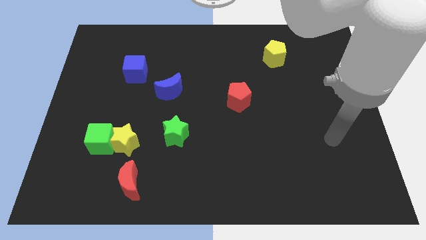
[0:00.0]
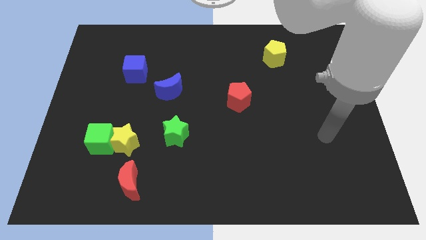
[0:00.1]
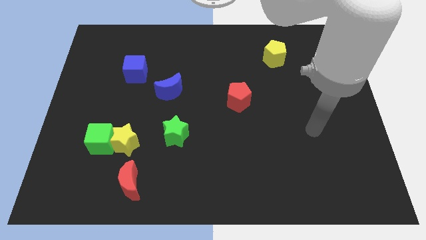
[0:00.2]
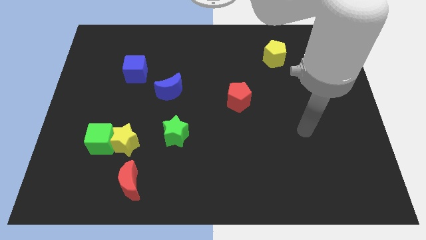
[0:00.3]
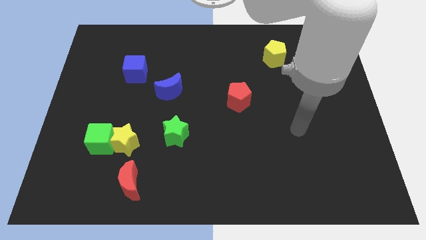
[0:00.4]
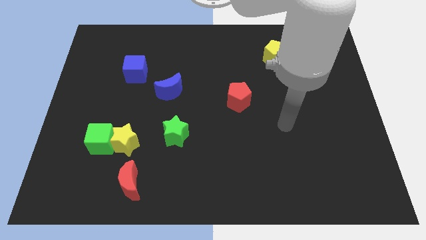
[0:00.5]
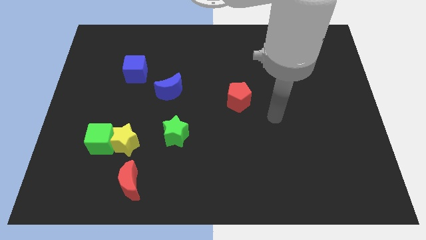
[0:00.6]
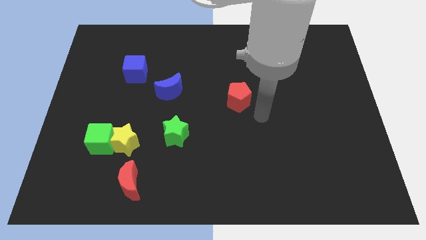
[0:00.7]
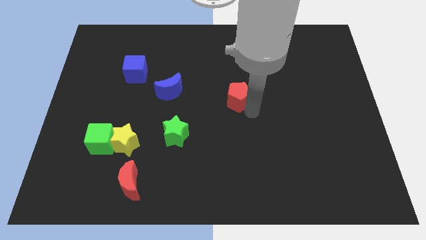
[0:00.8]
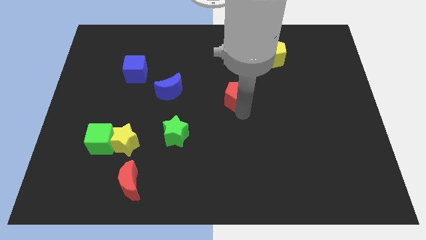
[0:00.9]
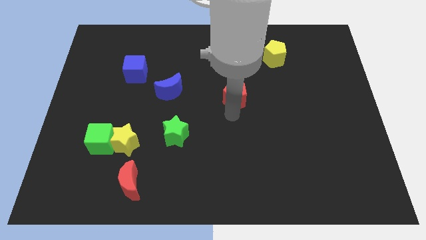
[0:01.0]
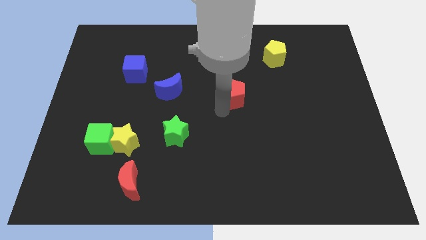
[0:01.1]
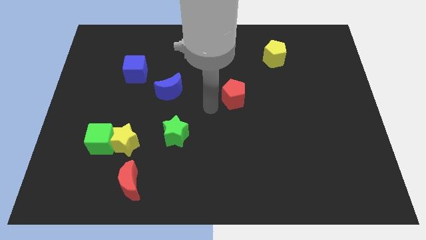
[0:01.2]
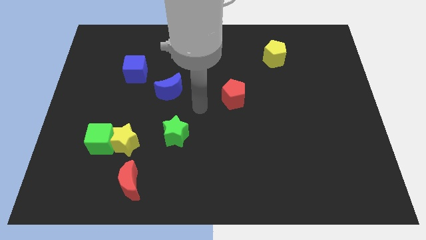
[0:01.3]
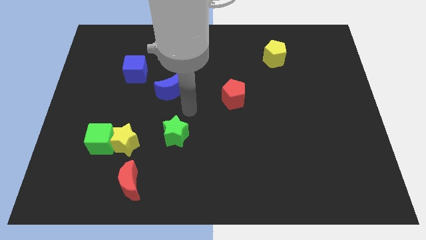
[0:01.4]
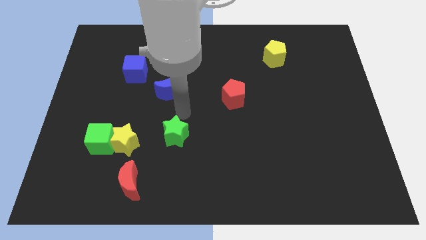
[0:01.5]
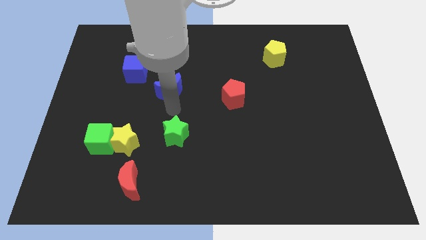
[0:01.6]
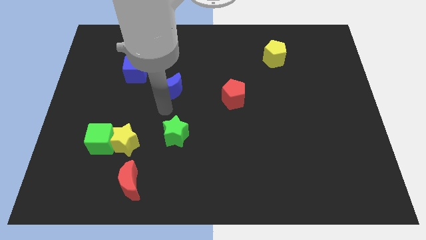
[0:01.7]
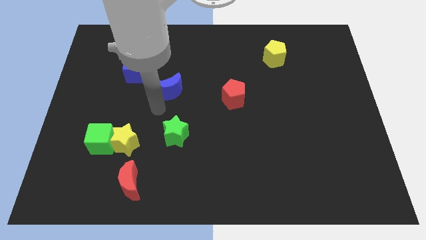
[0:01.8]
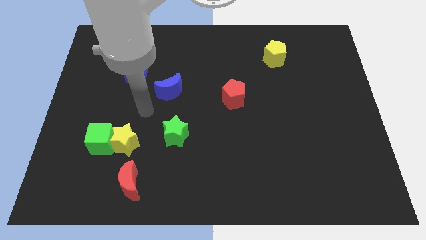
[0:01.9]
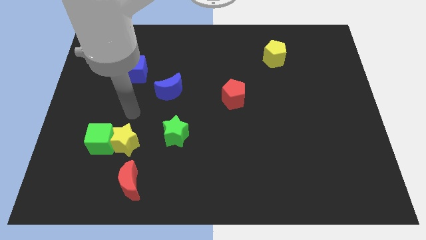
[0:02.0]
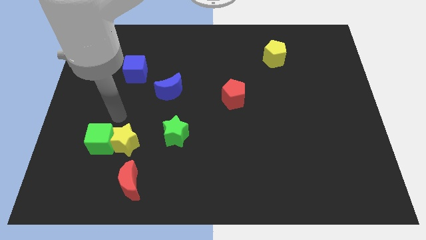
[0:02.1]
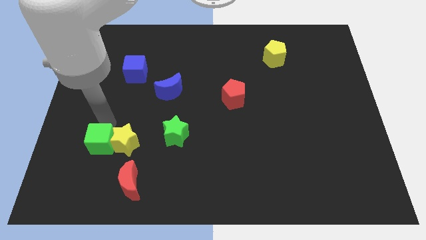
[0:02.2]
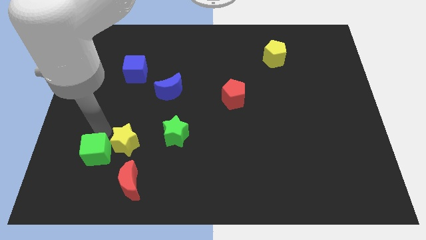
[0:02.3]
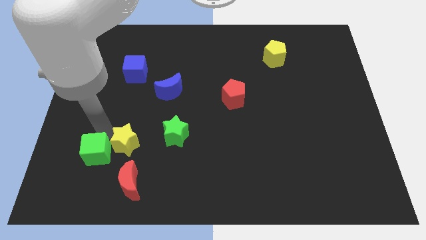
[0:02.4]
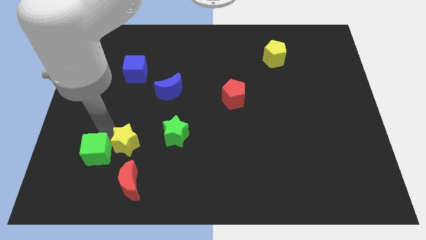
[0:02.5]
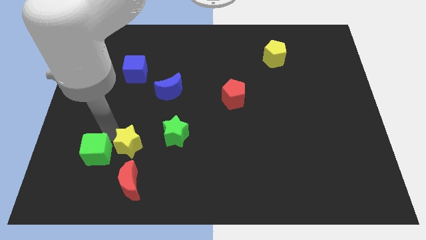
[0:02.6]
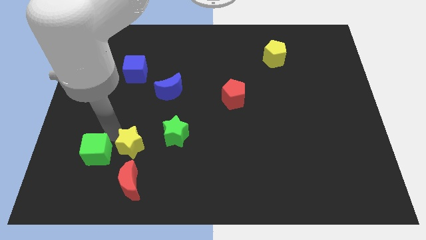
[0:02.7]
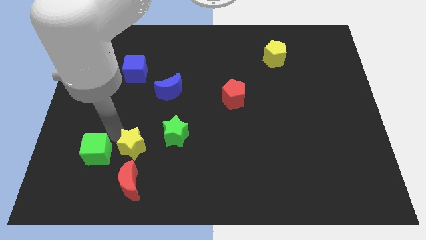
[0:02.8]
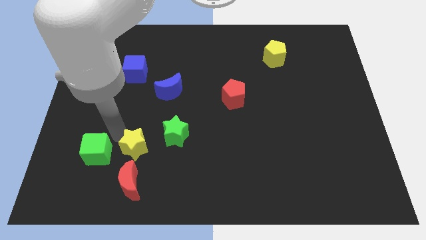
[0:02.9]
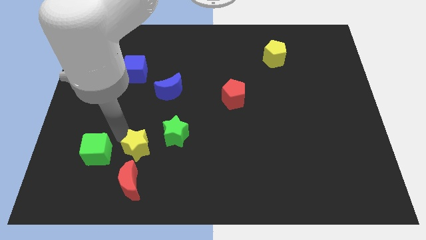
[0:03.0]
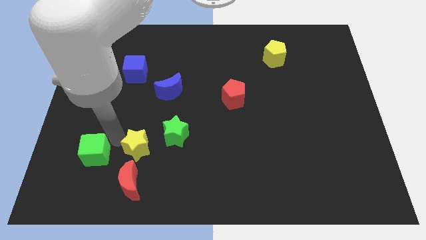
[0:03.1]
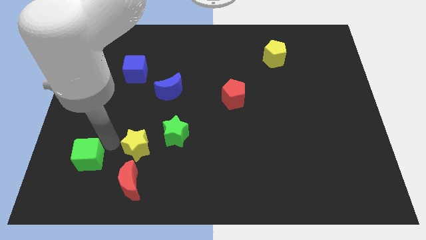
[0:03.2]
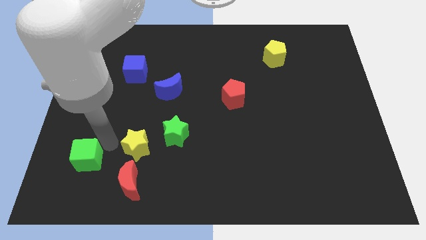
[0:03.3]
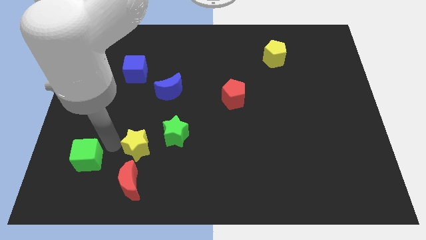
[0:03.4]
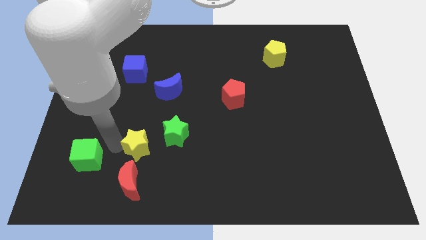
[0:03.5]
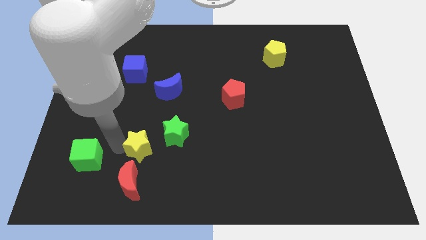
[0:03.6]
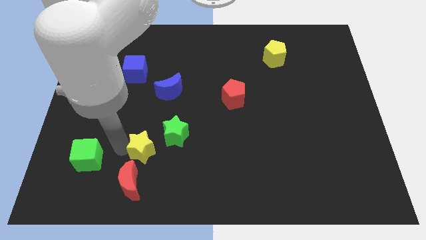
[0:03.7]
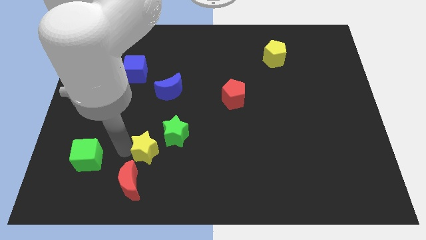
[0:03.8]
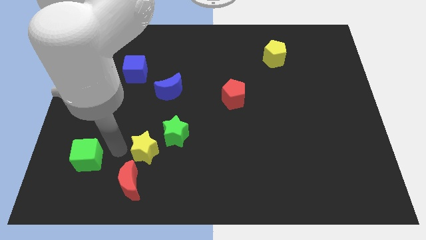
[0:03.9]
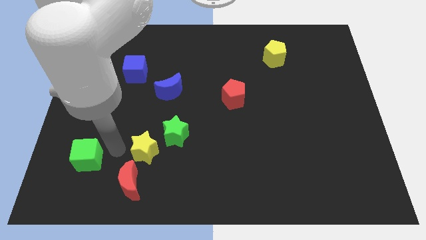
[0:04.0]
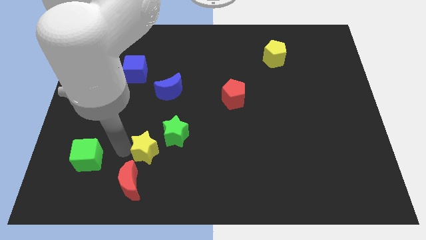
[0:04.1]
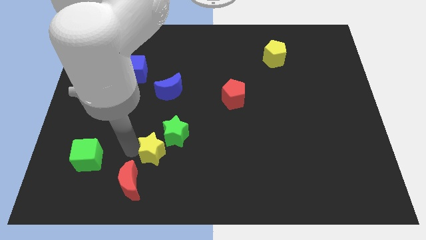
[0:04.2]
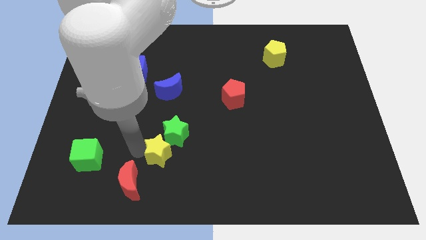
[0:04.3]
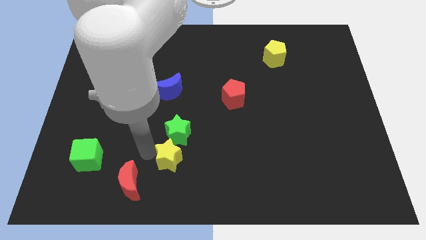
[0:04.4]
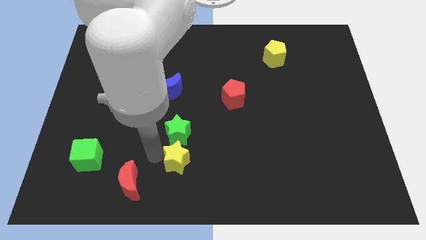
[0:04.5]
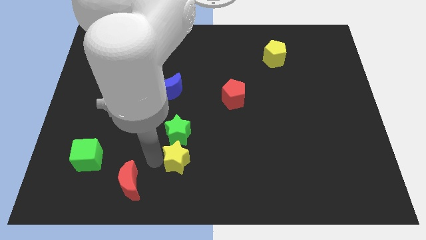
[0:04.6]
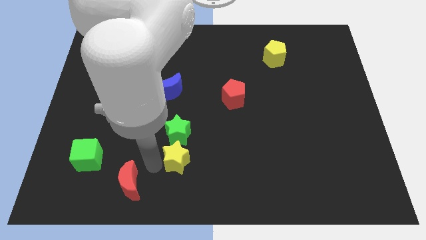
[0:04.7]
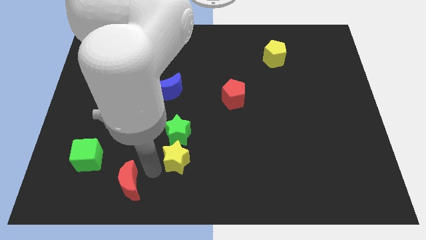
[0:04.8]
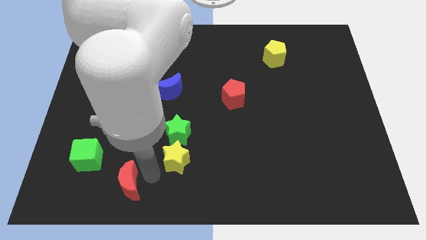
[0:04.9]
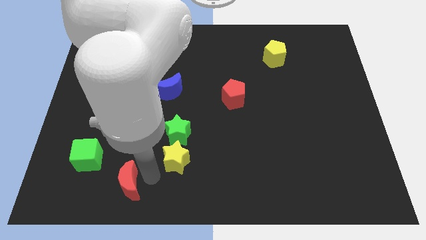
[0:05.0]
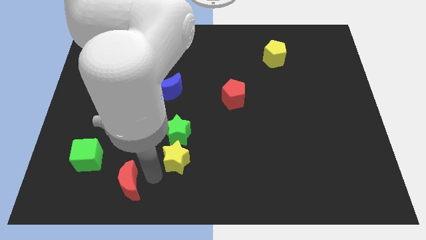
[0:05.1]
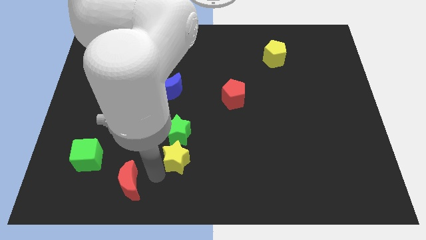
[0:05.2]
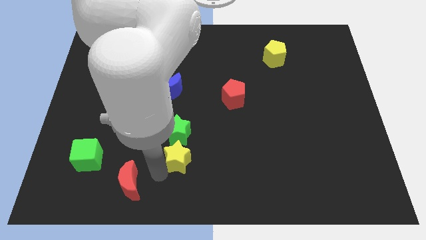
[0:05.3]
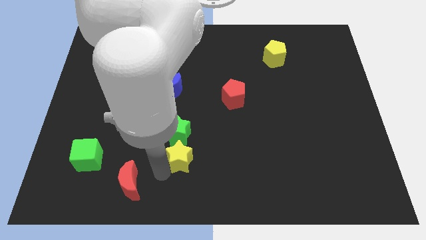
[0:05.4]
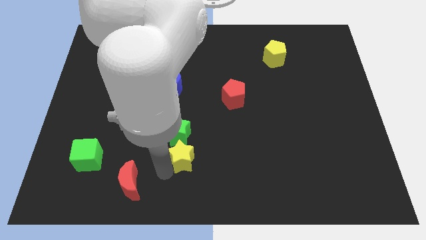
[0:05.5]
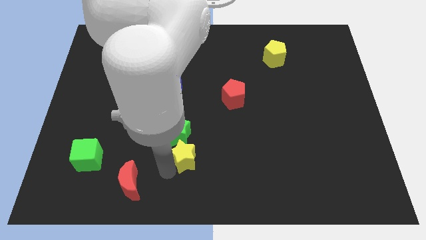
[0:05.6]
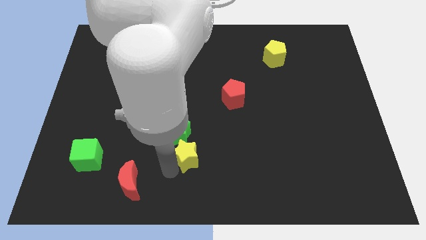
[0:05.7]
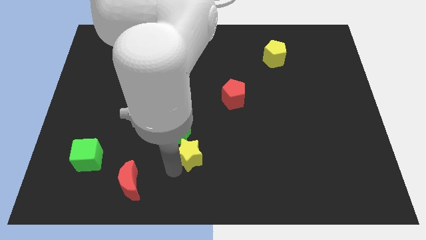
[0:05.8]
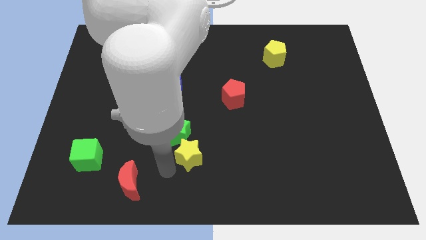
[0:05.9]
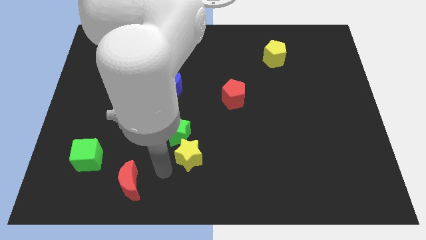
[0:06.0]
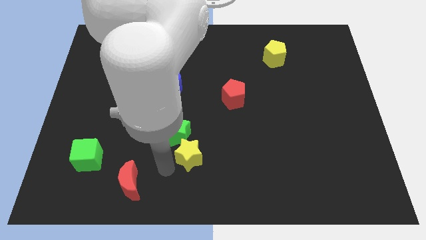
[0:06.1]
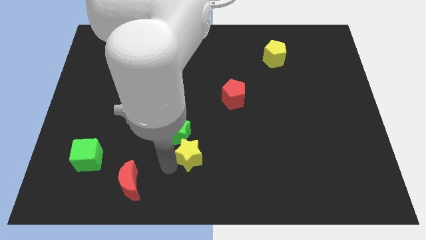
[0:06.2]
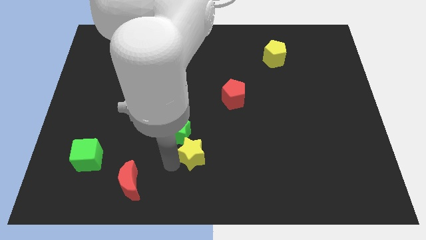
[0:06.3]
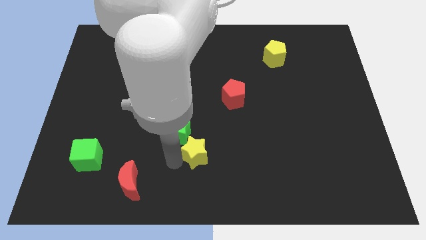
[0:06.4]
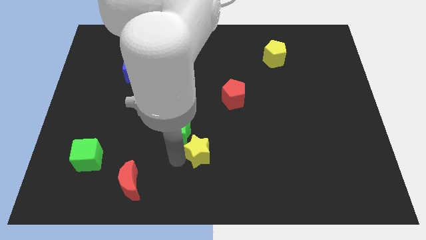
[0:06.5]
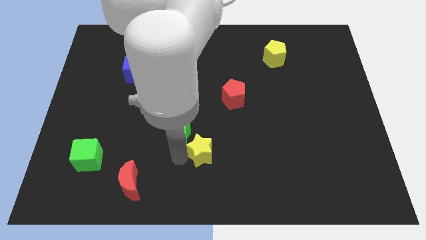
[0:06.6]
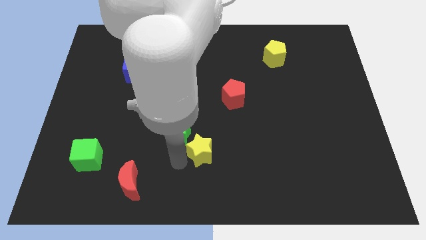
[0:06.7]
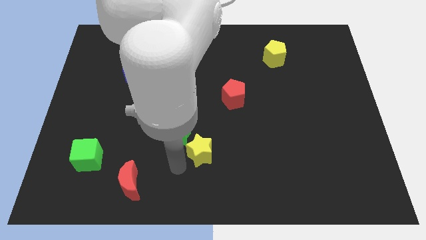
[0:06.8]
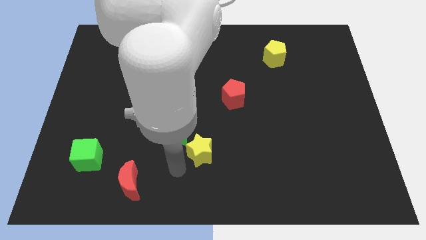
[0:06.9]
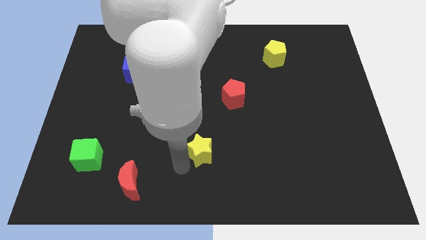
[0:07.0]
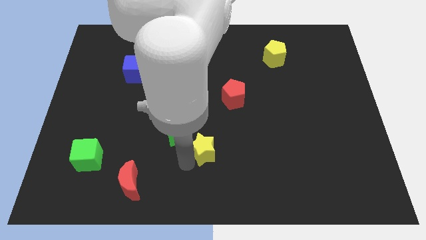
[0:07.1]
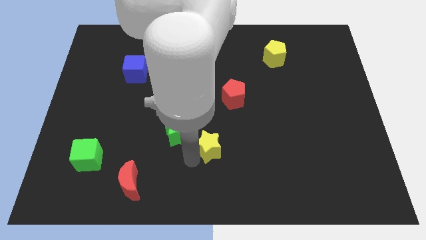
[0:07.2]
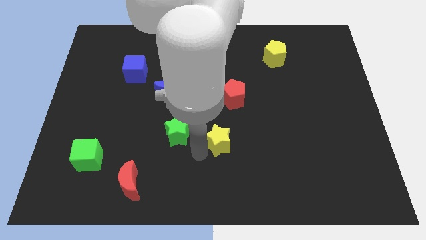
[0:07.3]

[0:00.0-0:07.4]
push the yellow star right

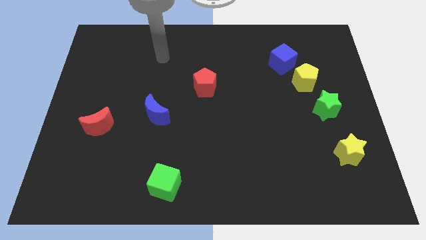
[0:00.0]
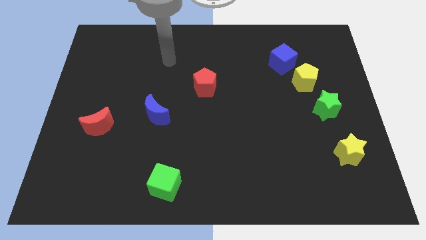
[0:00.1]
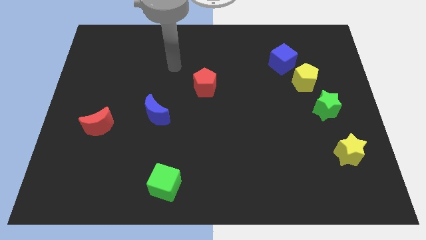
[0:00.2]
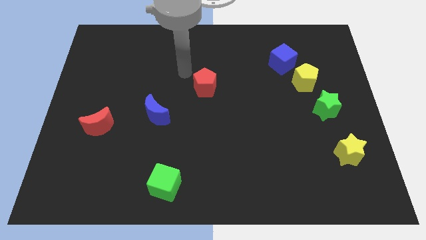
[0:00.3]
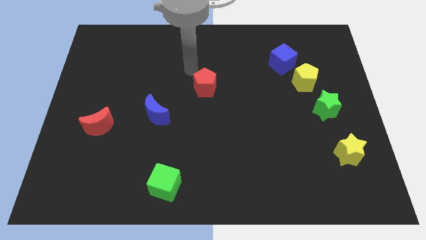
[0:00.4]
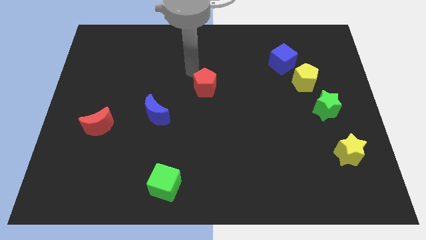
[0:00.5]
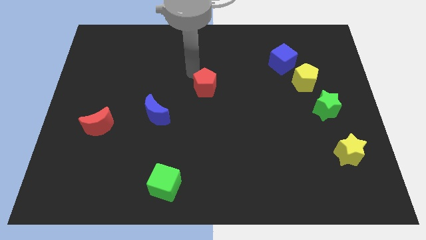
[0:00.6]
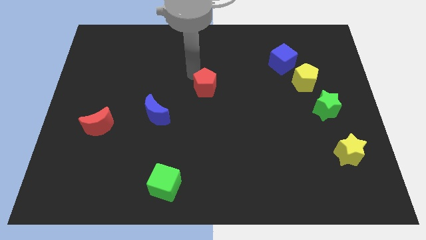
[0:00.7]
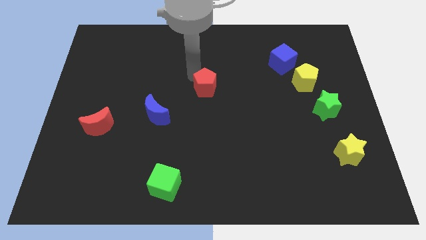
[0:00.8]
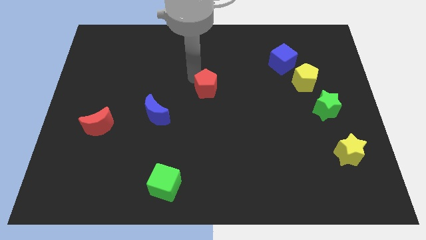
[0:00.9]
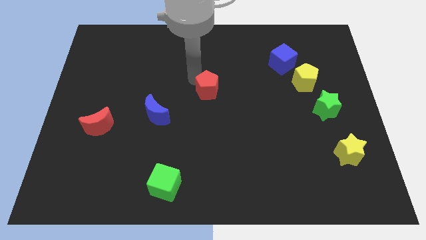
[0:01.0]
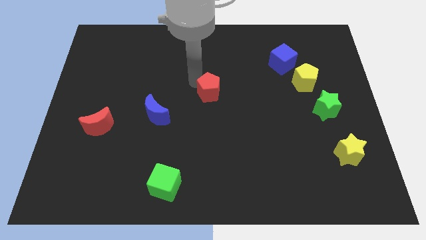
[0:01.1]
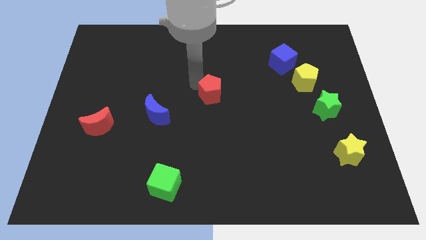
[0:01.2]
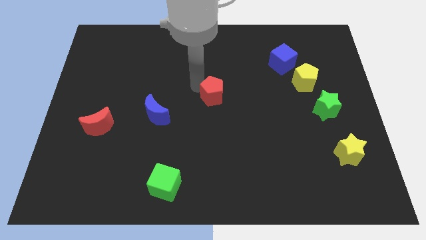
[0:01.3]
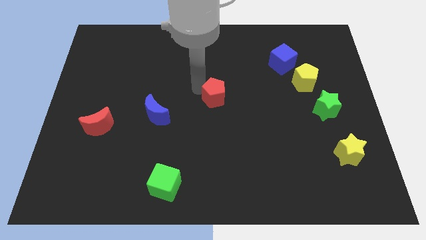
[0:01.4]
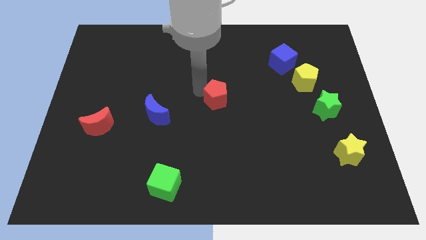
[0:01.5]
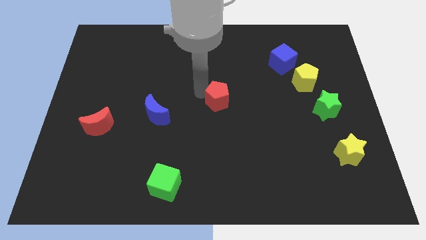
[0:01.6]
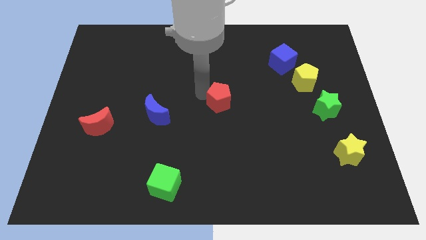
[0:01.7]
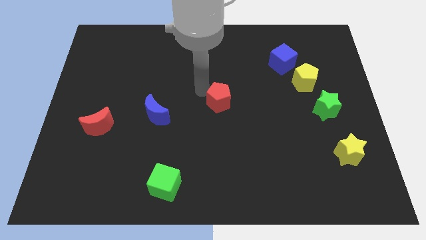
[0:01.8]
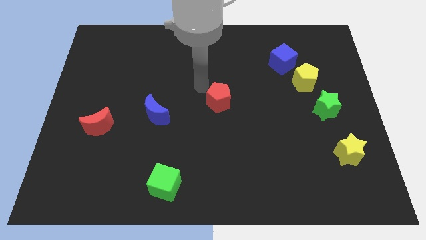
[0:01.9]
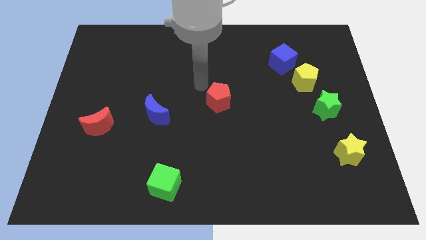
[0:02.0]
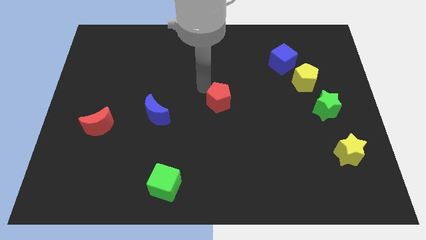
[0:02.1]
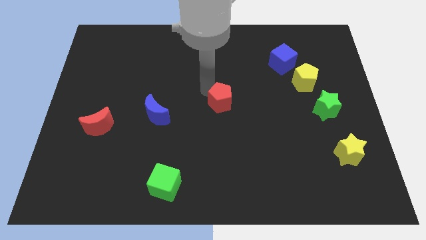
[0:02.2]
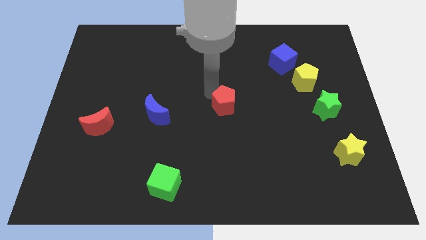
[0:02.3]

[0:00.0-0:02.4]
push the red pentagon a bit downwards and right
